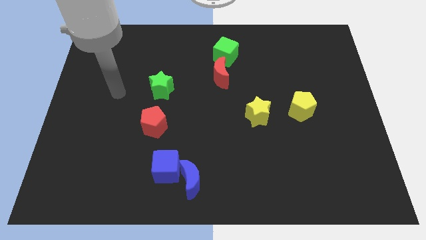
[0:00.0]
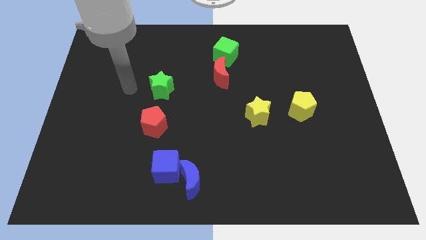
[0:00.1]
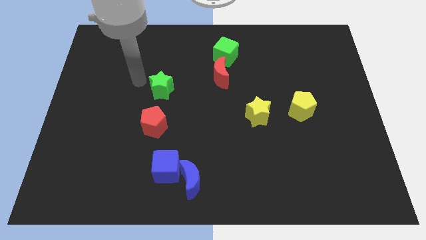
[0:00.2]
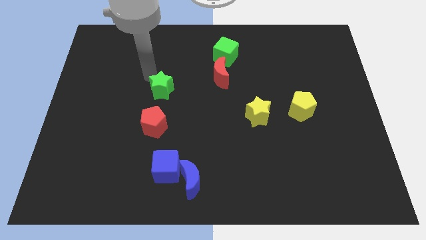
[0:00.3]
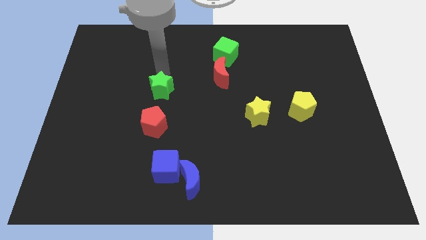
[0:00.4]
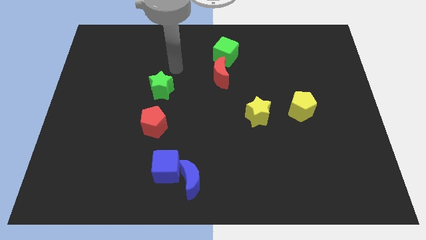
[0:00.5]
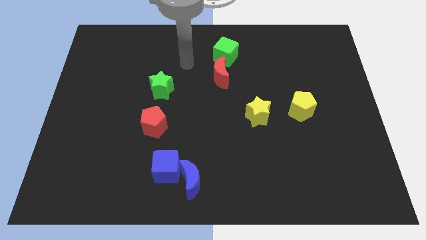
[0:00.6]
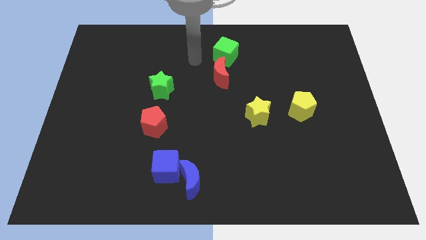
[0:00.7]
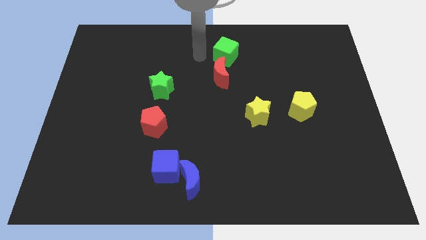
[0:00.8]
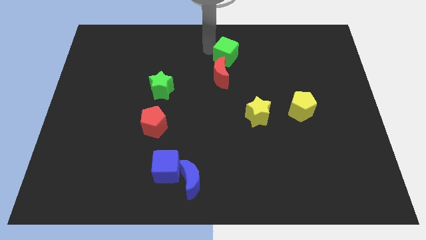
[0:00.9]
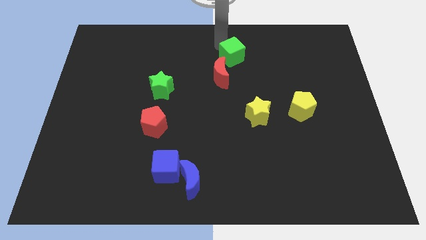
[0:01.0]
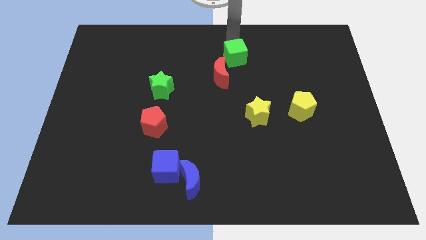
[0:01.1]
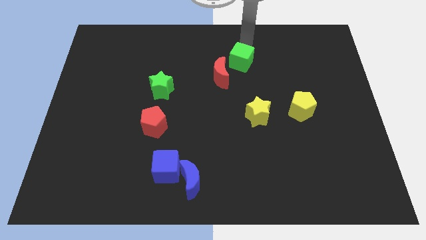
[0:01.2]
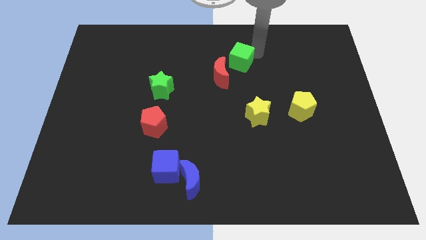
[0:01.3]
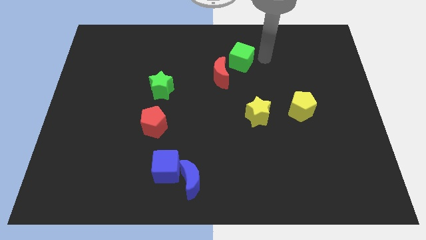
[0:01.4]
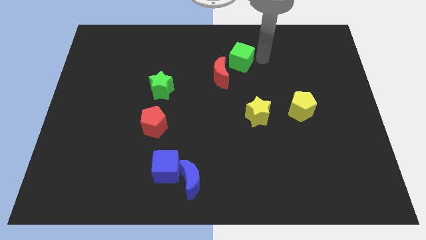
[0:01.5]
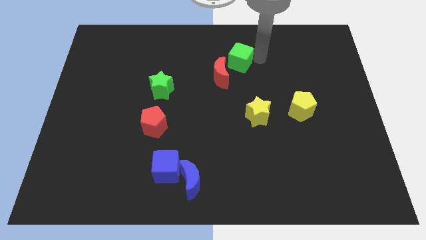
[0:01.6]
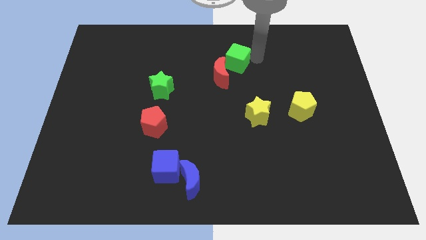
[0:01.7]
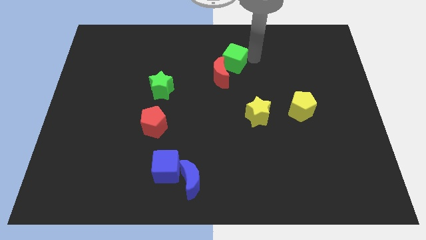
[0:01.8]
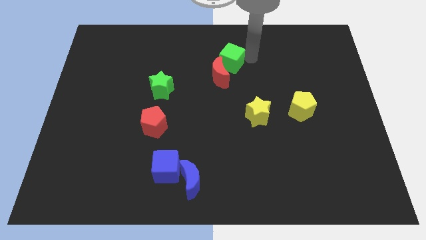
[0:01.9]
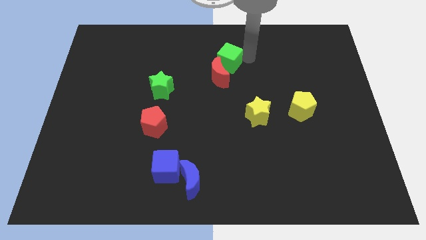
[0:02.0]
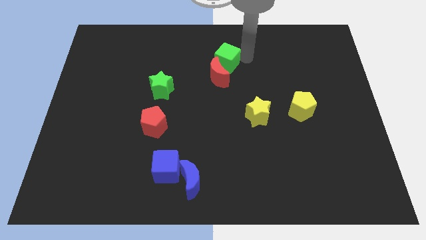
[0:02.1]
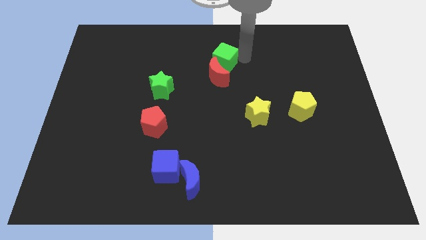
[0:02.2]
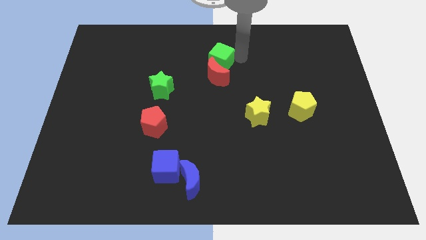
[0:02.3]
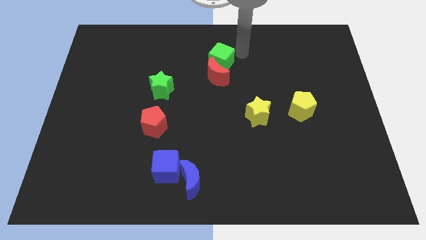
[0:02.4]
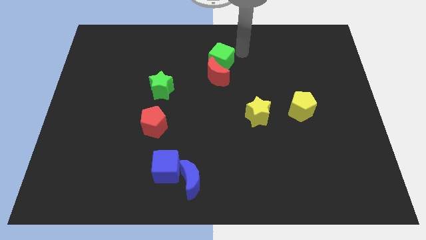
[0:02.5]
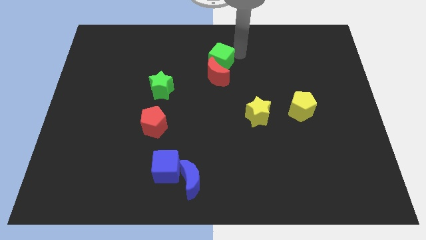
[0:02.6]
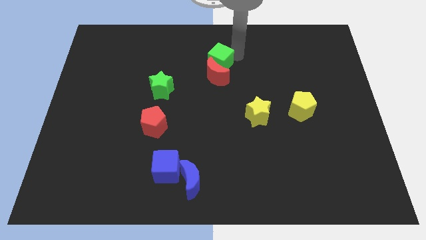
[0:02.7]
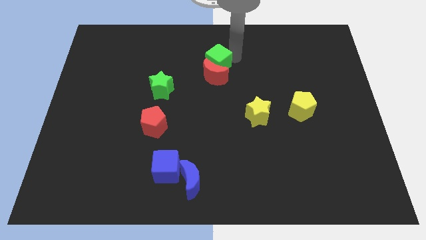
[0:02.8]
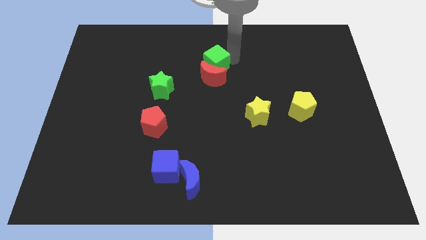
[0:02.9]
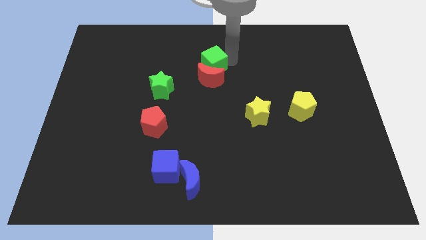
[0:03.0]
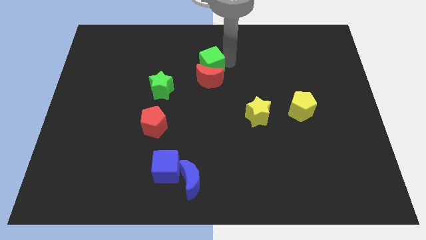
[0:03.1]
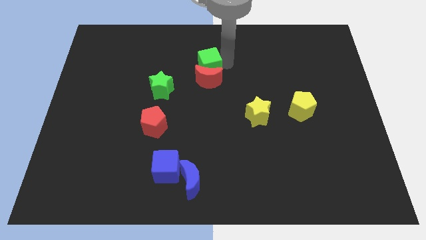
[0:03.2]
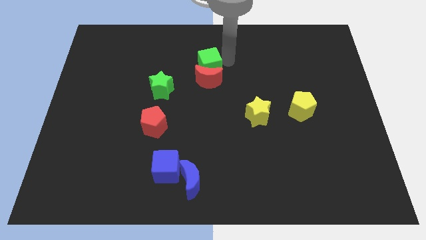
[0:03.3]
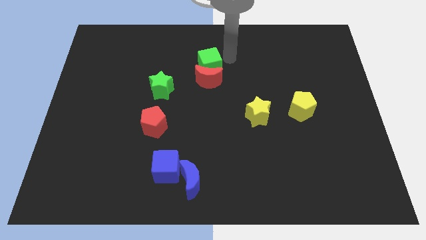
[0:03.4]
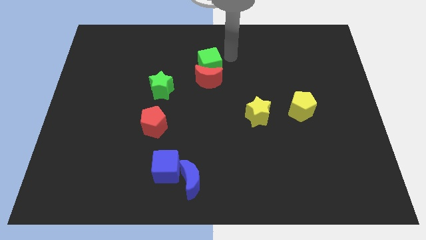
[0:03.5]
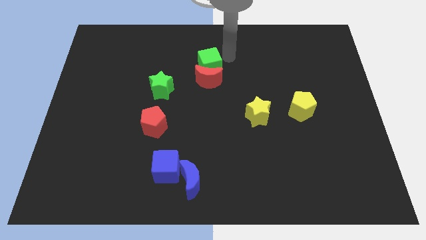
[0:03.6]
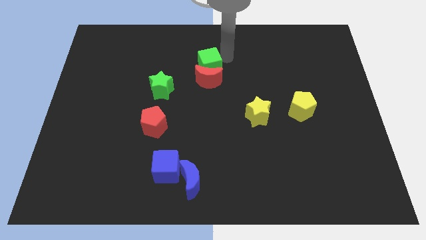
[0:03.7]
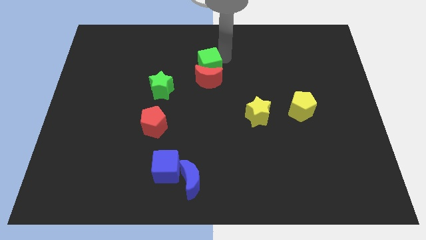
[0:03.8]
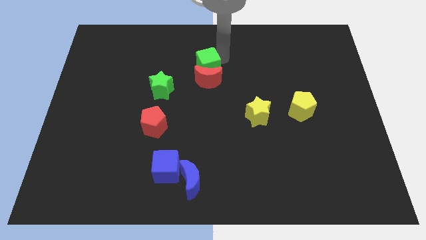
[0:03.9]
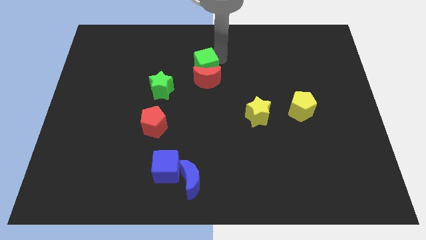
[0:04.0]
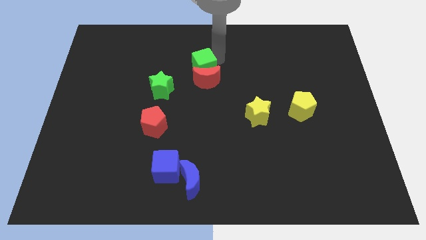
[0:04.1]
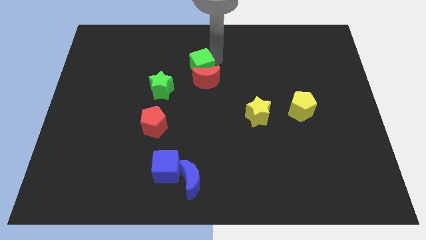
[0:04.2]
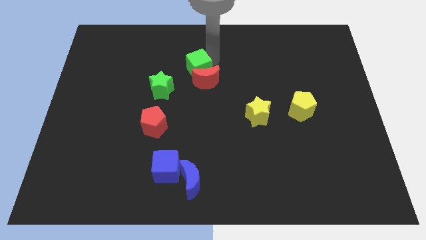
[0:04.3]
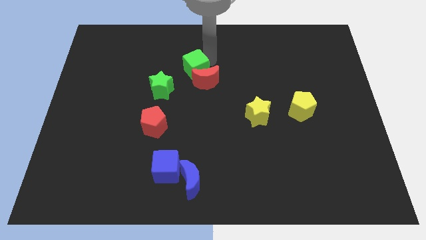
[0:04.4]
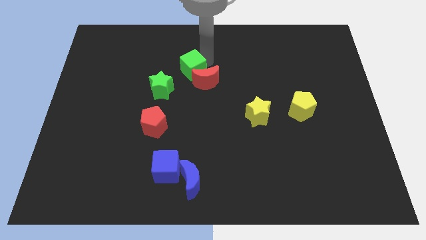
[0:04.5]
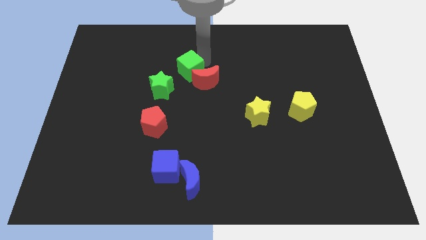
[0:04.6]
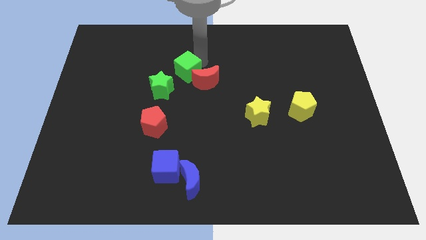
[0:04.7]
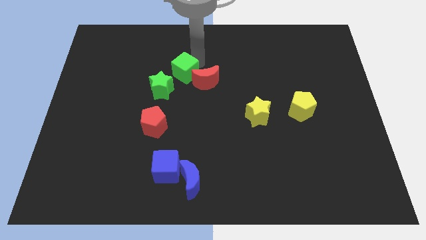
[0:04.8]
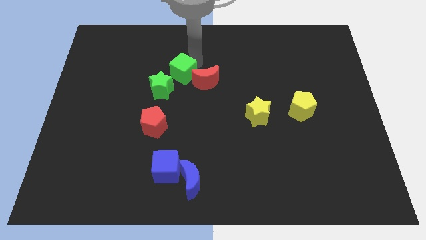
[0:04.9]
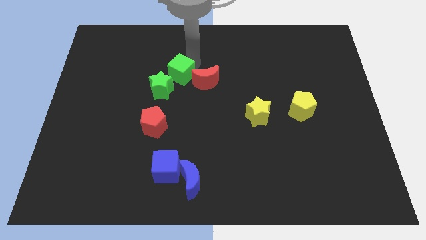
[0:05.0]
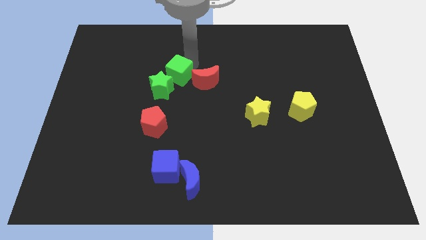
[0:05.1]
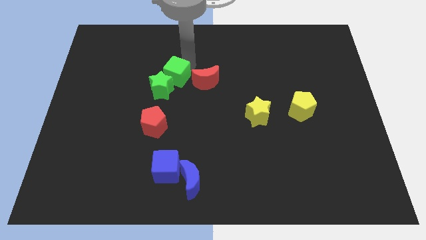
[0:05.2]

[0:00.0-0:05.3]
push the green cube close to the green star

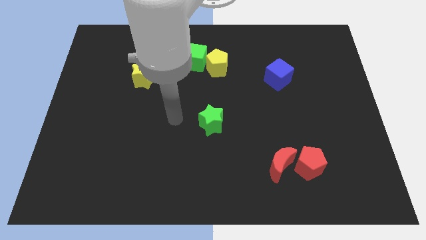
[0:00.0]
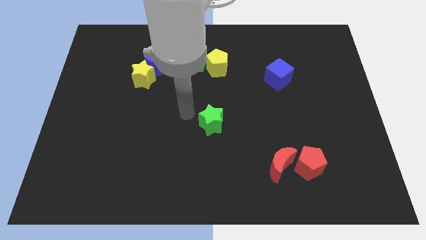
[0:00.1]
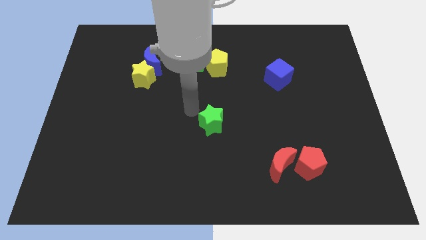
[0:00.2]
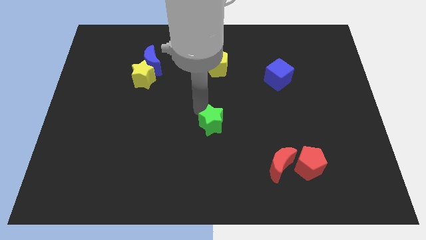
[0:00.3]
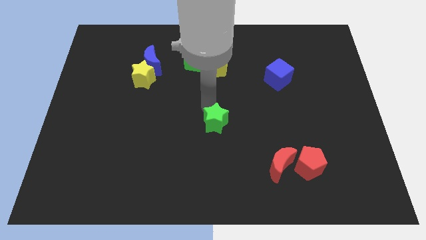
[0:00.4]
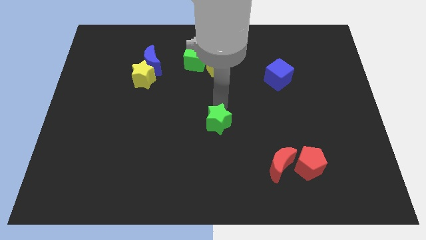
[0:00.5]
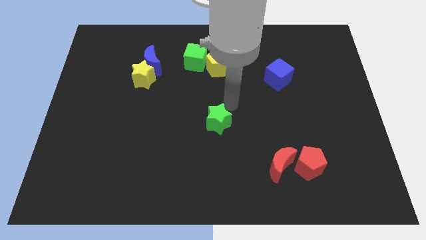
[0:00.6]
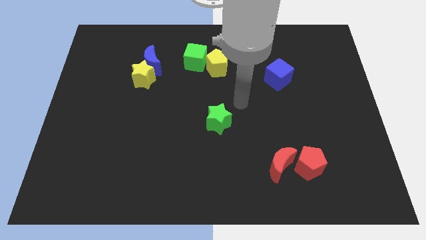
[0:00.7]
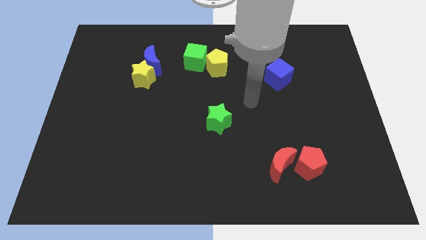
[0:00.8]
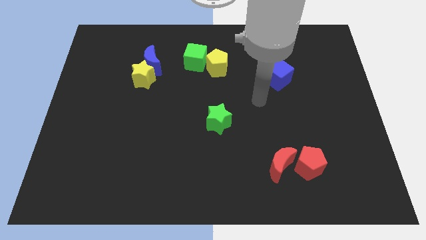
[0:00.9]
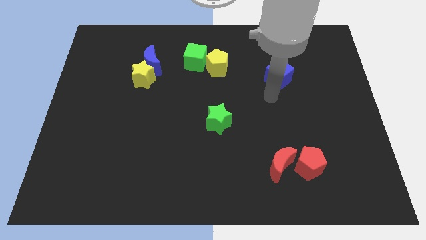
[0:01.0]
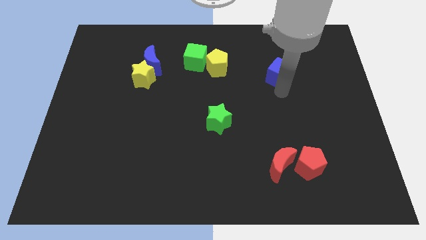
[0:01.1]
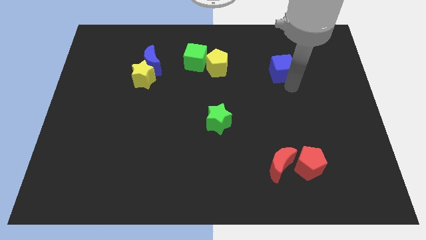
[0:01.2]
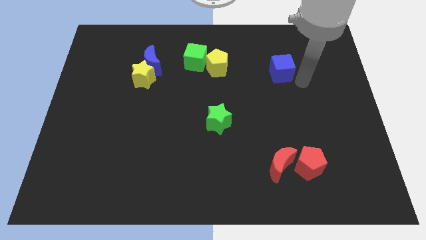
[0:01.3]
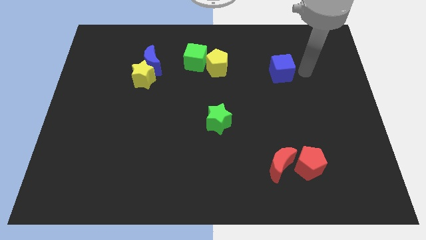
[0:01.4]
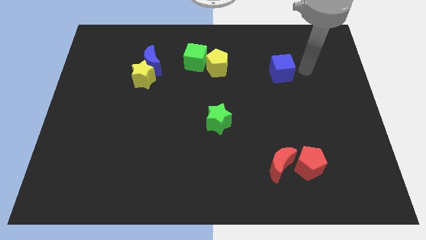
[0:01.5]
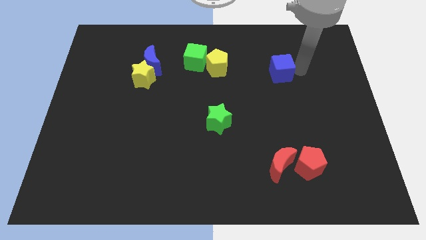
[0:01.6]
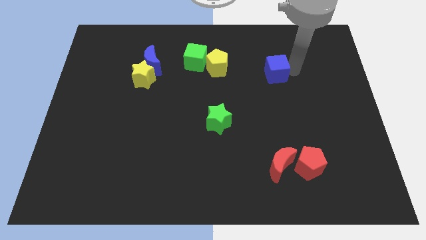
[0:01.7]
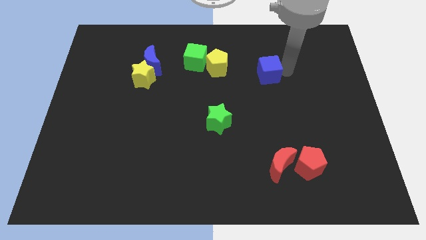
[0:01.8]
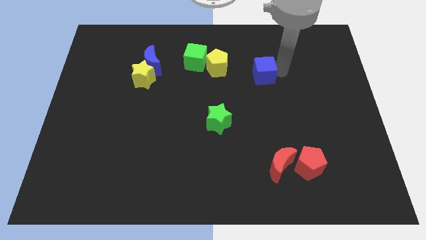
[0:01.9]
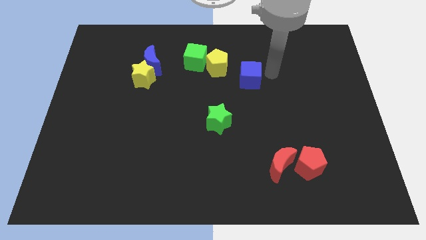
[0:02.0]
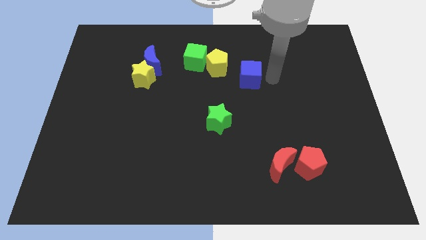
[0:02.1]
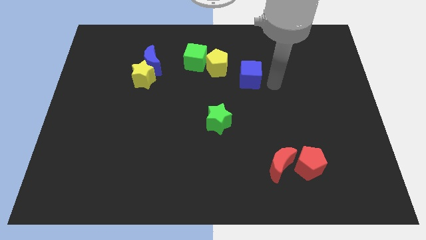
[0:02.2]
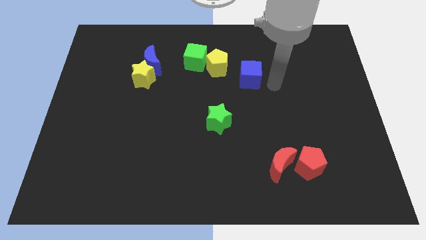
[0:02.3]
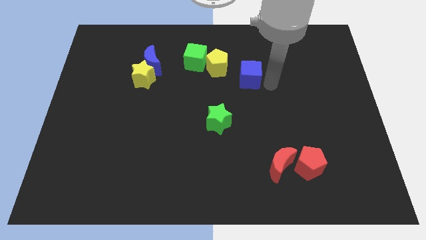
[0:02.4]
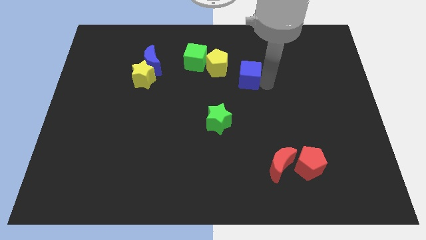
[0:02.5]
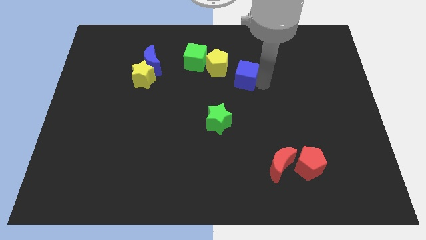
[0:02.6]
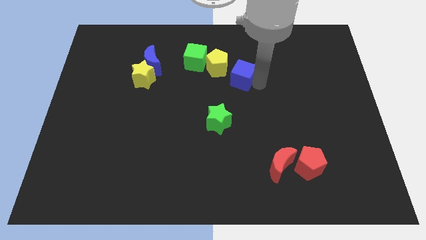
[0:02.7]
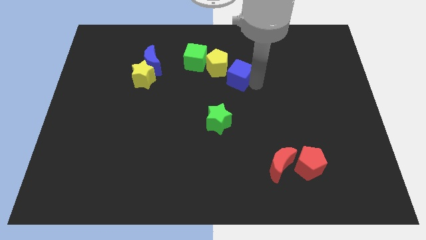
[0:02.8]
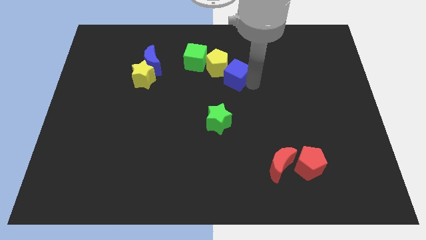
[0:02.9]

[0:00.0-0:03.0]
slide the blue cube to the yellow pentagon
